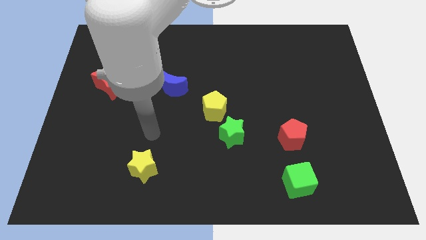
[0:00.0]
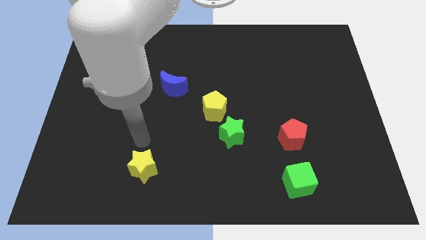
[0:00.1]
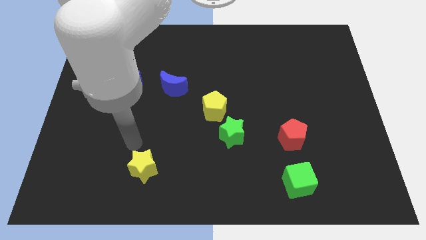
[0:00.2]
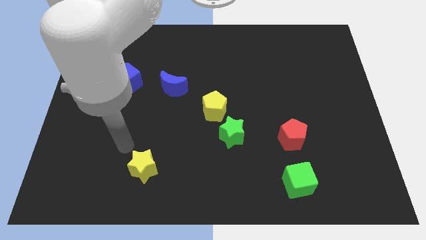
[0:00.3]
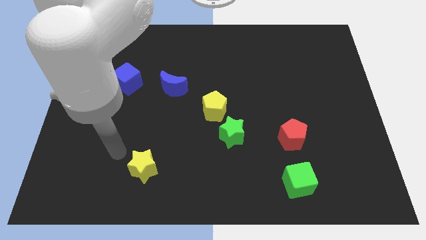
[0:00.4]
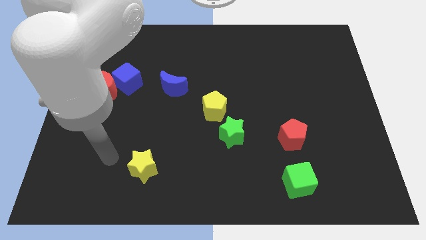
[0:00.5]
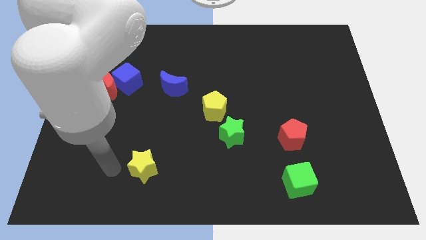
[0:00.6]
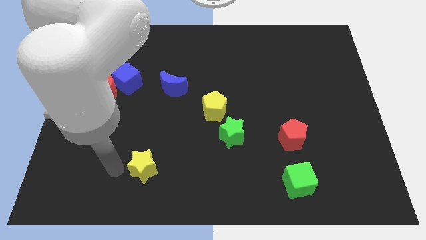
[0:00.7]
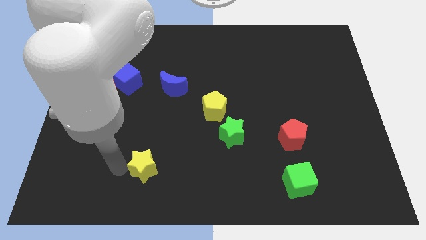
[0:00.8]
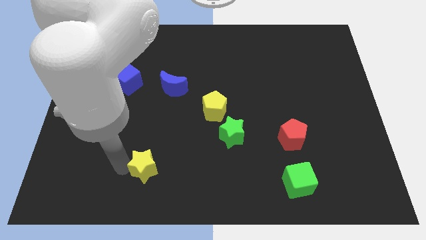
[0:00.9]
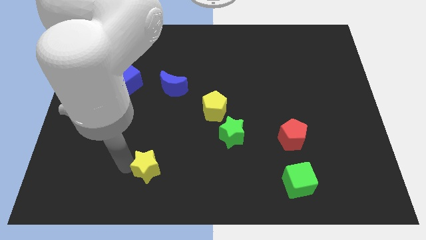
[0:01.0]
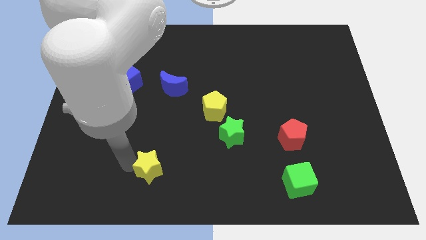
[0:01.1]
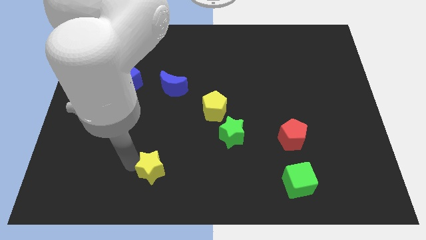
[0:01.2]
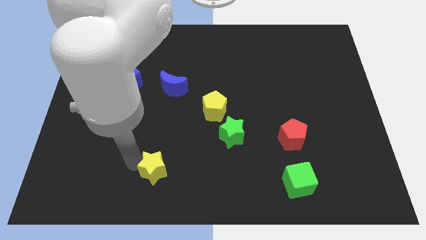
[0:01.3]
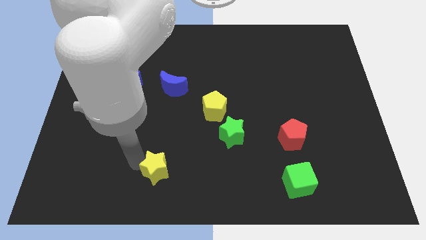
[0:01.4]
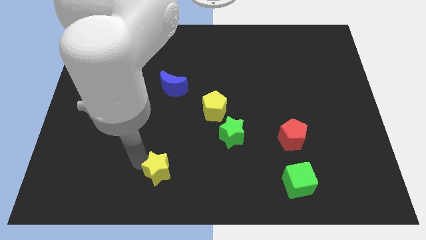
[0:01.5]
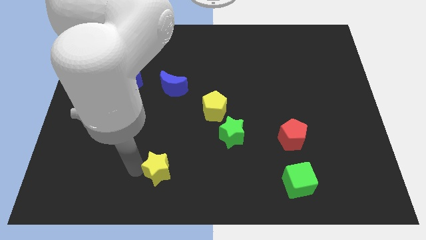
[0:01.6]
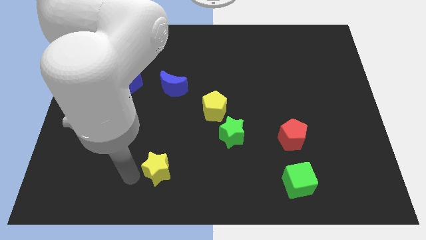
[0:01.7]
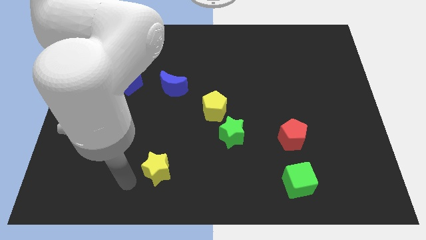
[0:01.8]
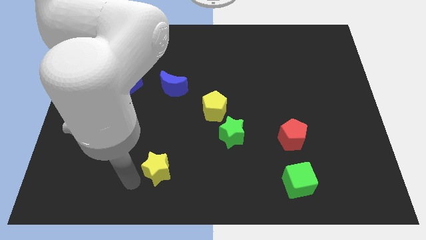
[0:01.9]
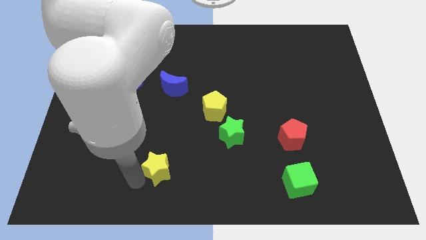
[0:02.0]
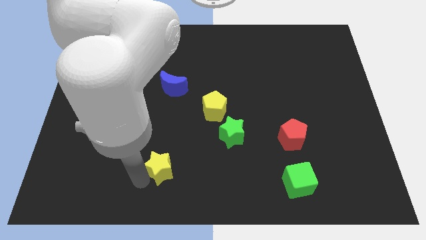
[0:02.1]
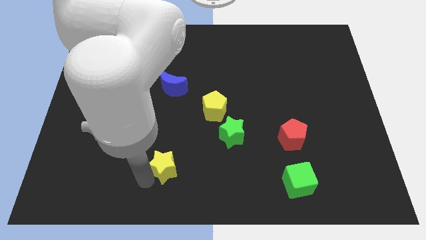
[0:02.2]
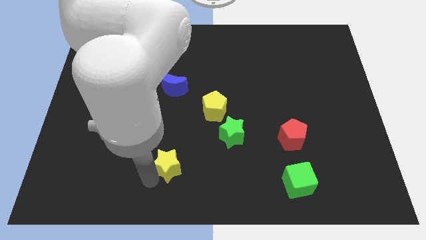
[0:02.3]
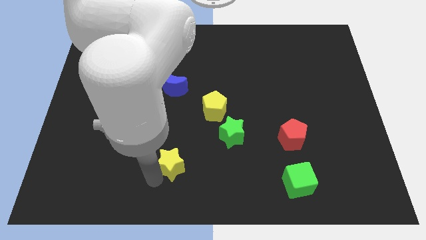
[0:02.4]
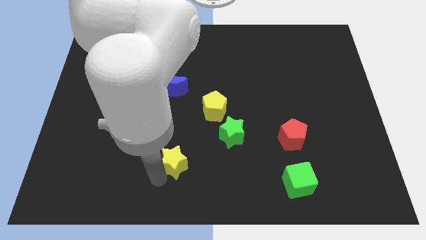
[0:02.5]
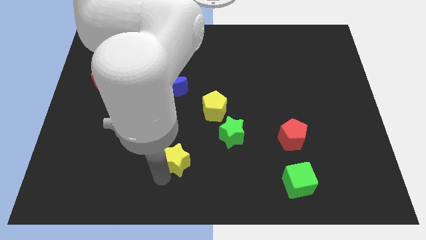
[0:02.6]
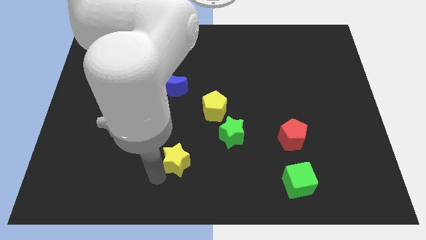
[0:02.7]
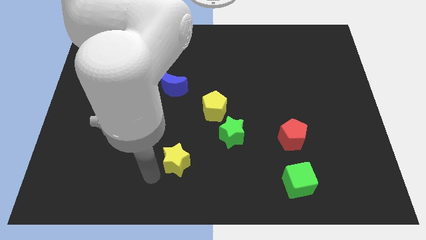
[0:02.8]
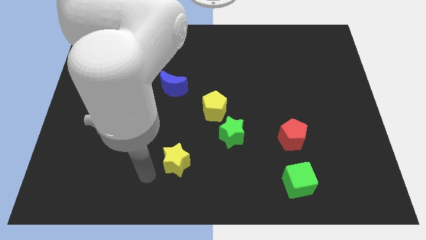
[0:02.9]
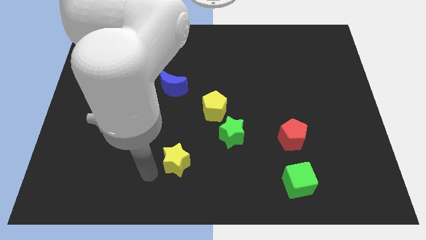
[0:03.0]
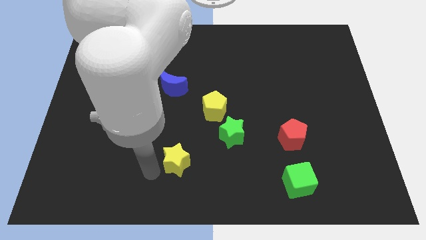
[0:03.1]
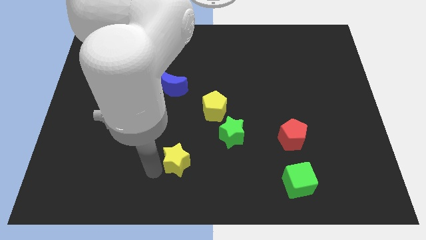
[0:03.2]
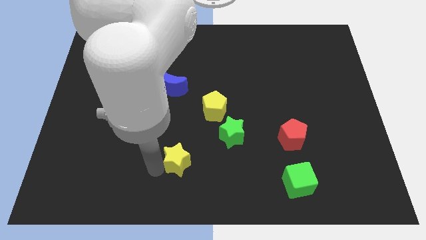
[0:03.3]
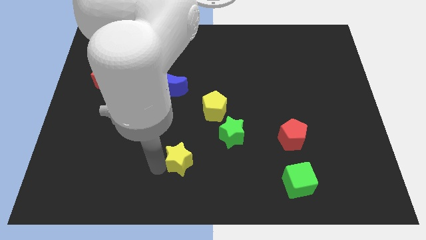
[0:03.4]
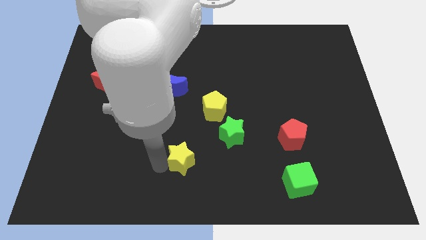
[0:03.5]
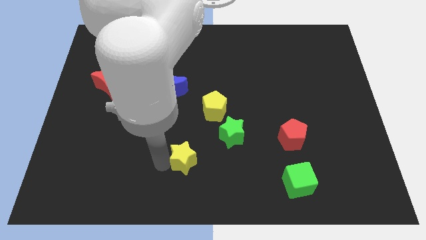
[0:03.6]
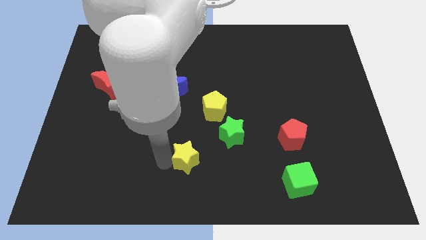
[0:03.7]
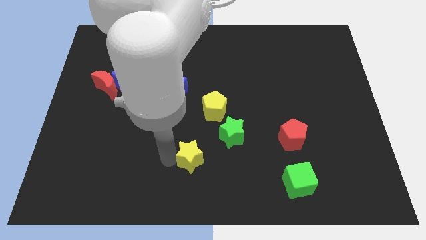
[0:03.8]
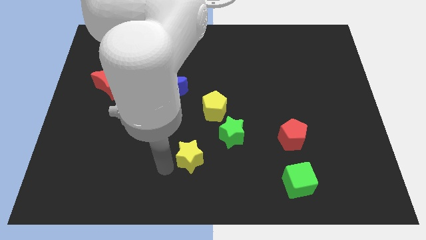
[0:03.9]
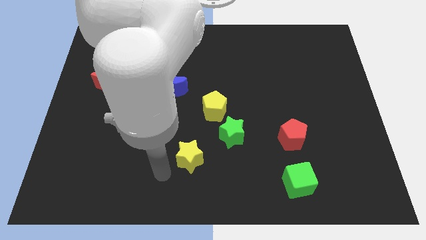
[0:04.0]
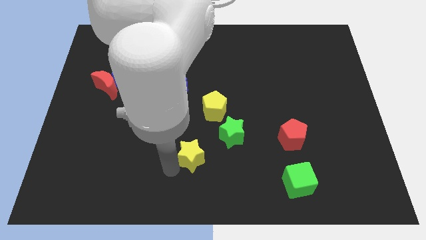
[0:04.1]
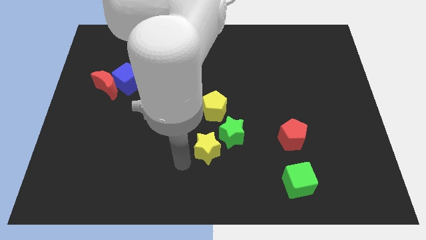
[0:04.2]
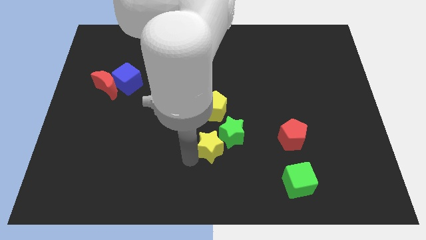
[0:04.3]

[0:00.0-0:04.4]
put the yellow star to the green star

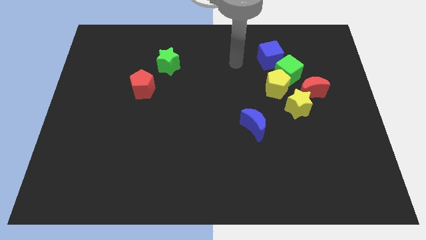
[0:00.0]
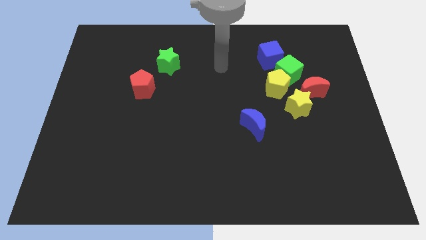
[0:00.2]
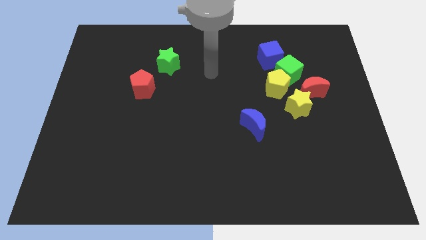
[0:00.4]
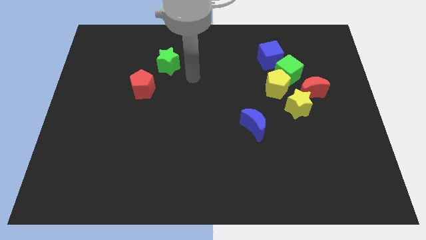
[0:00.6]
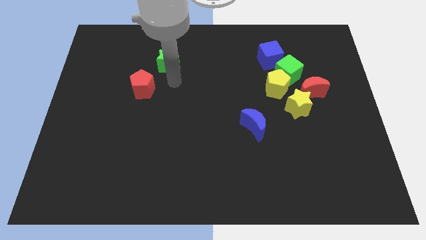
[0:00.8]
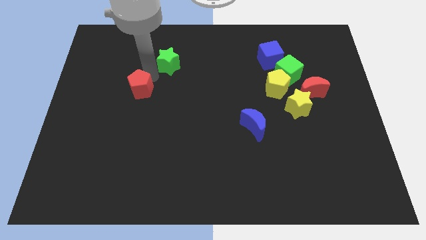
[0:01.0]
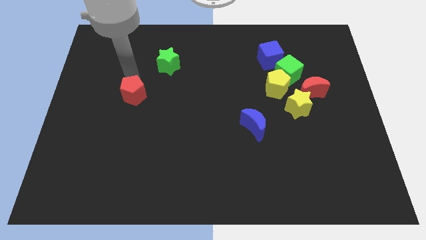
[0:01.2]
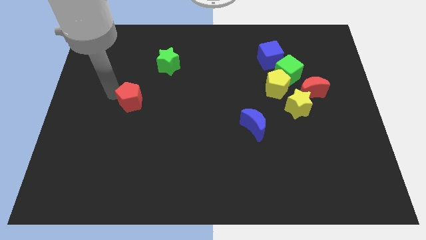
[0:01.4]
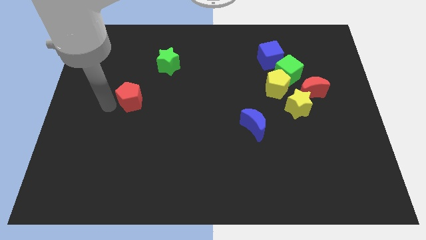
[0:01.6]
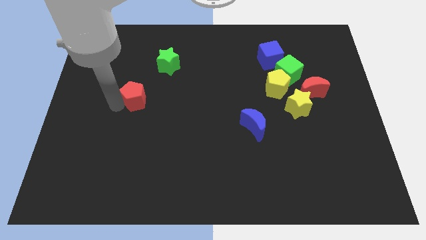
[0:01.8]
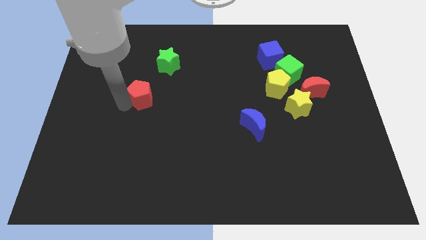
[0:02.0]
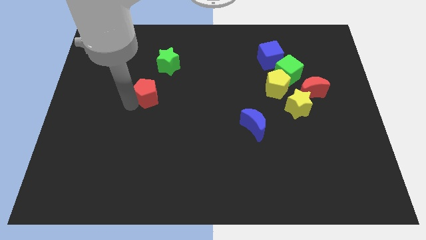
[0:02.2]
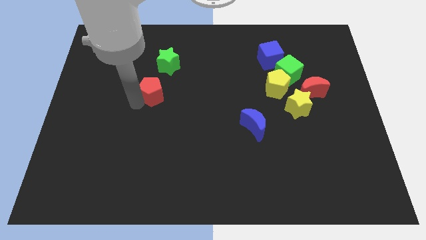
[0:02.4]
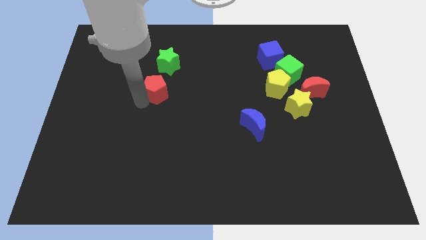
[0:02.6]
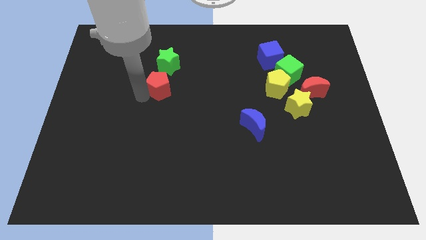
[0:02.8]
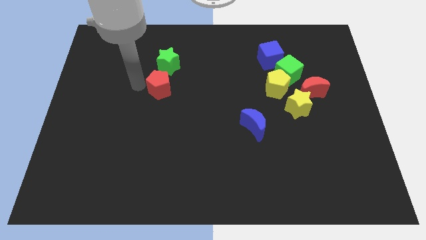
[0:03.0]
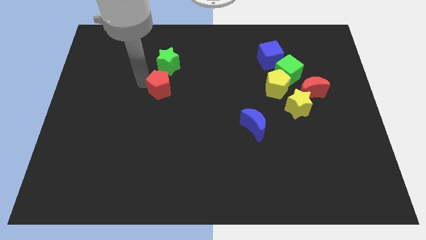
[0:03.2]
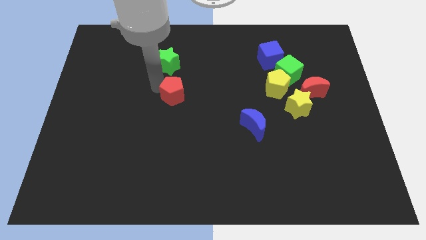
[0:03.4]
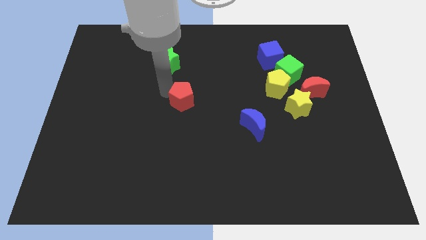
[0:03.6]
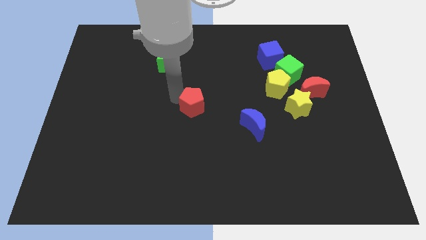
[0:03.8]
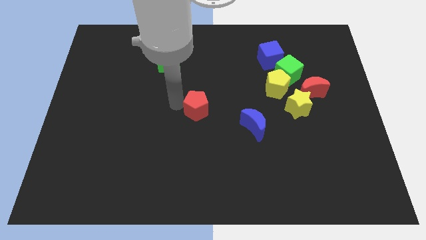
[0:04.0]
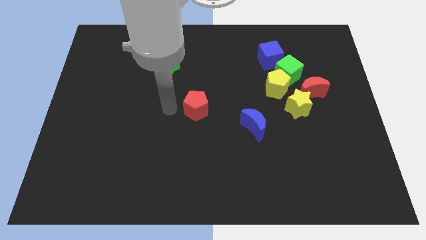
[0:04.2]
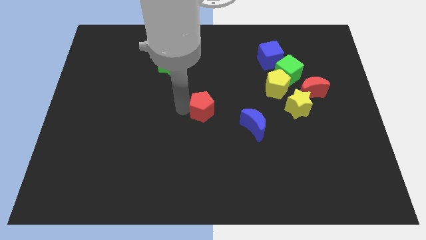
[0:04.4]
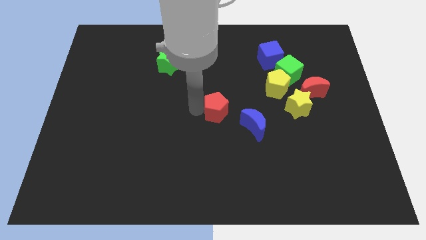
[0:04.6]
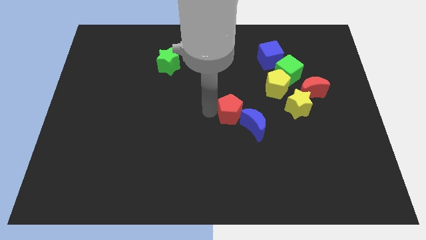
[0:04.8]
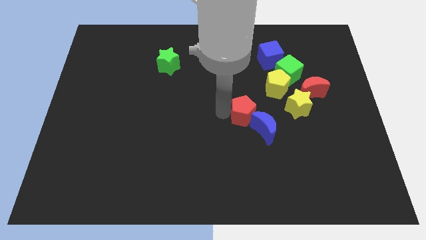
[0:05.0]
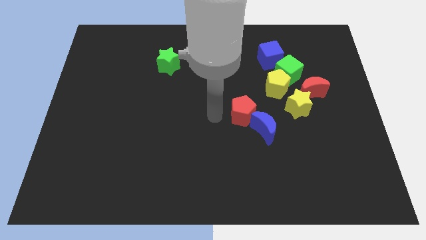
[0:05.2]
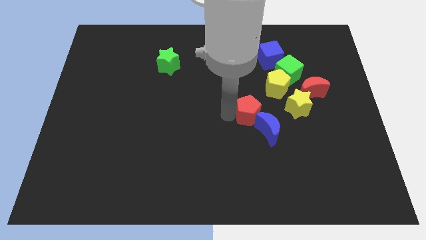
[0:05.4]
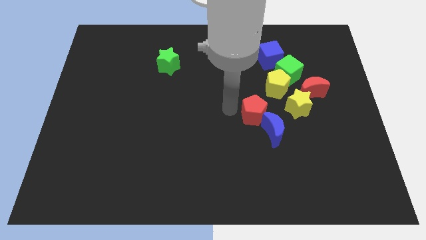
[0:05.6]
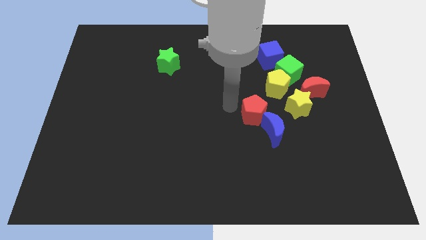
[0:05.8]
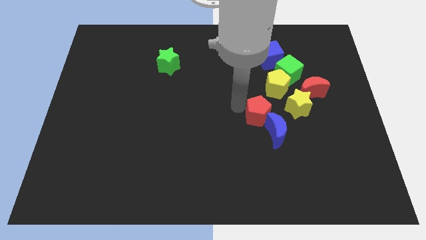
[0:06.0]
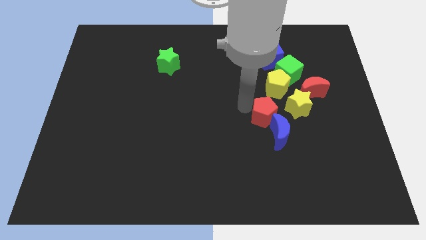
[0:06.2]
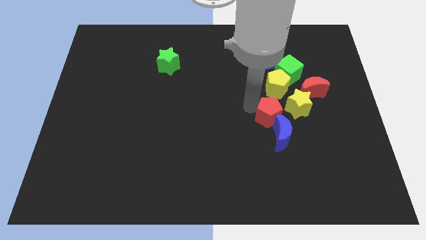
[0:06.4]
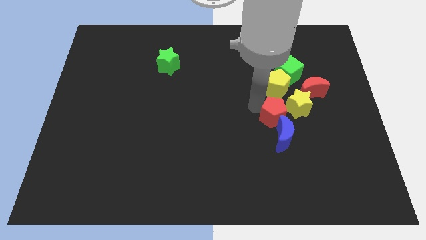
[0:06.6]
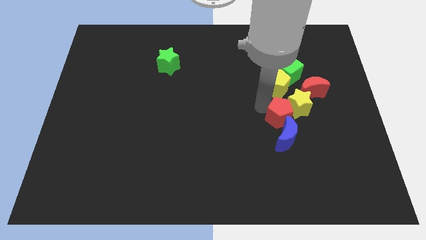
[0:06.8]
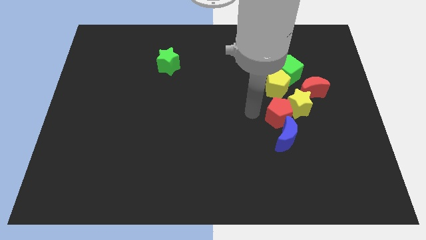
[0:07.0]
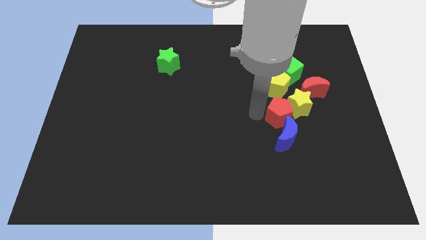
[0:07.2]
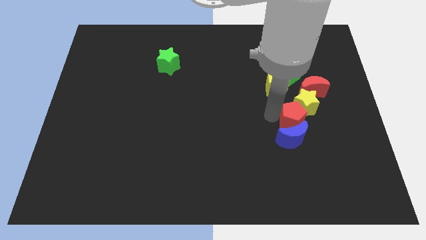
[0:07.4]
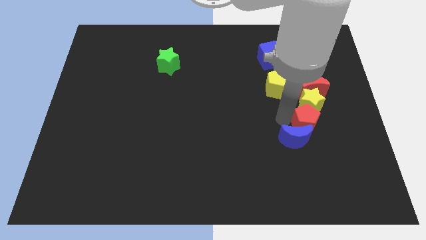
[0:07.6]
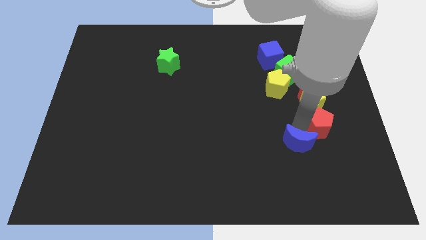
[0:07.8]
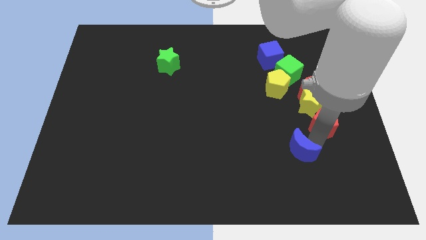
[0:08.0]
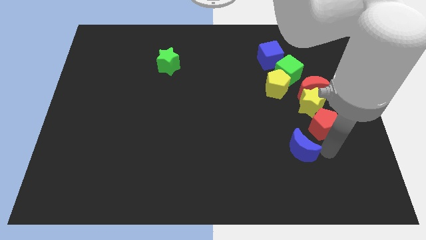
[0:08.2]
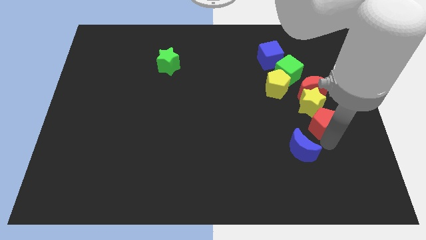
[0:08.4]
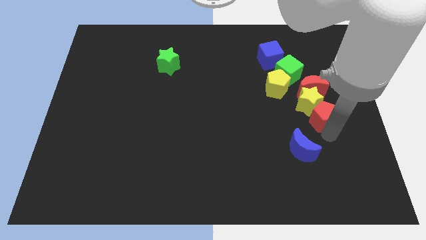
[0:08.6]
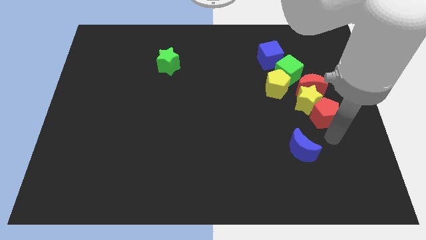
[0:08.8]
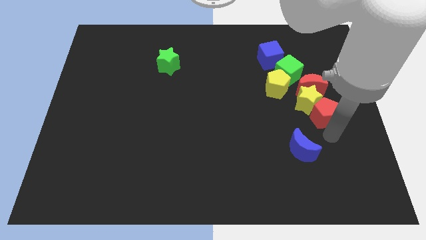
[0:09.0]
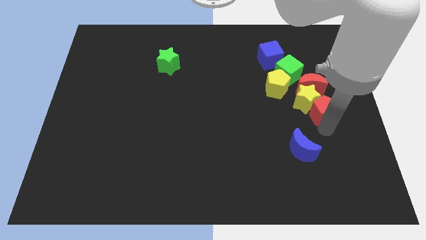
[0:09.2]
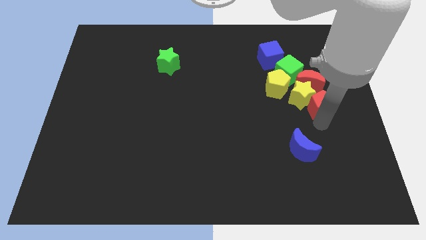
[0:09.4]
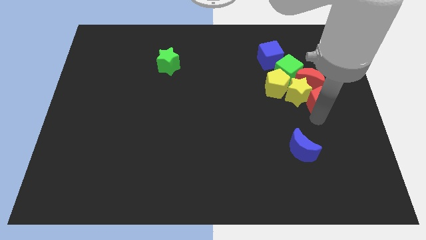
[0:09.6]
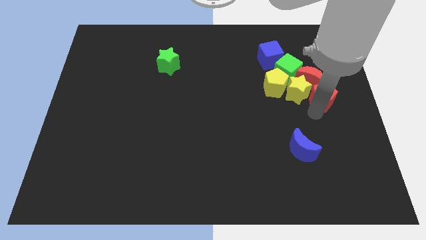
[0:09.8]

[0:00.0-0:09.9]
move the red pentagon towards the red moon
